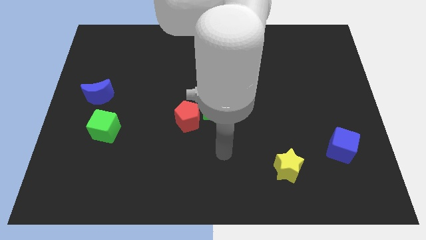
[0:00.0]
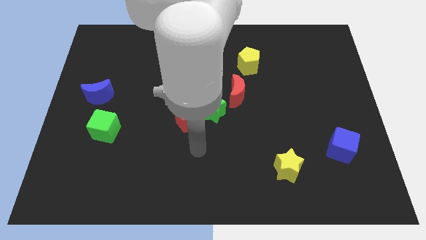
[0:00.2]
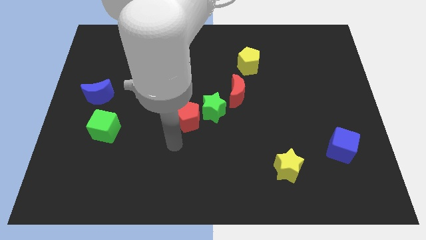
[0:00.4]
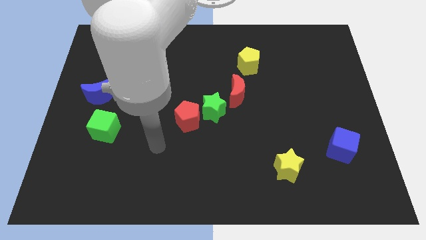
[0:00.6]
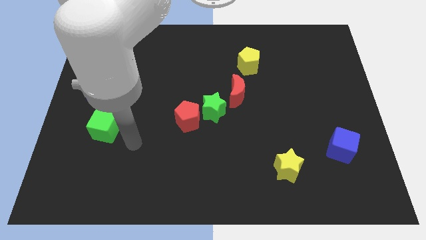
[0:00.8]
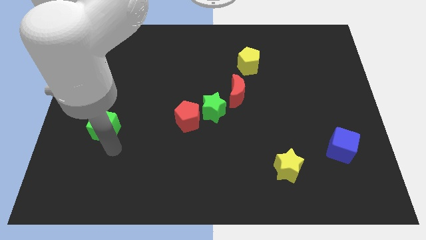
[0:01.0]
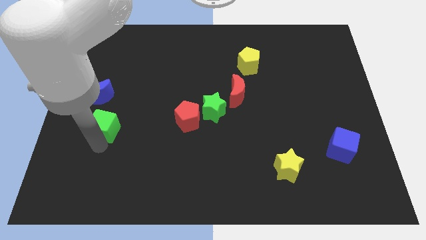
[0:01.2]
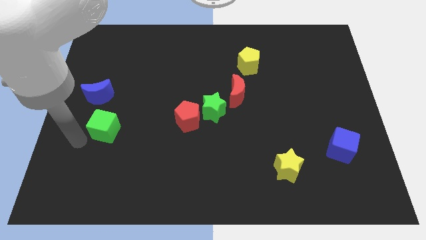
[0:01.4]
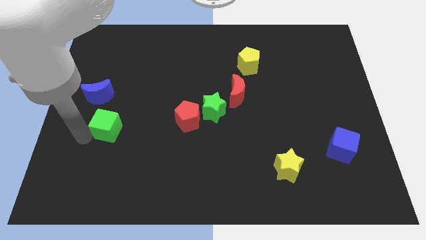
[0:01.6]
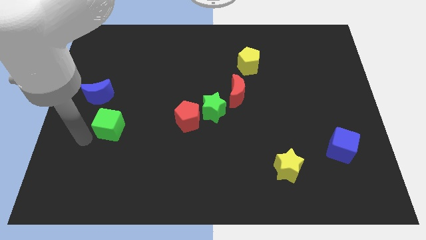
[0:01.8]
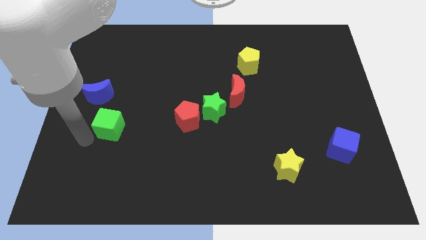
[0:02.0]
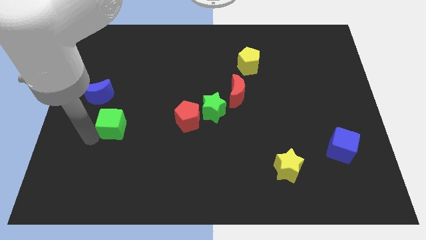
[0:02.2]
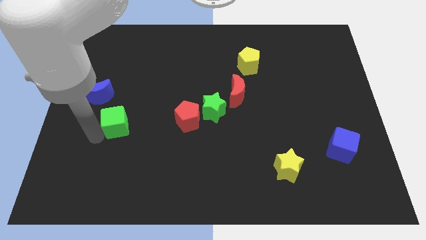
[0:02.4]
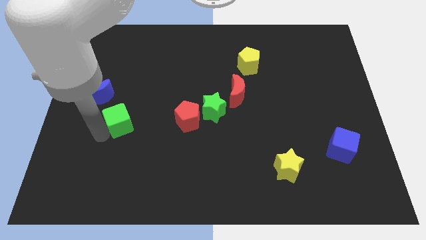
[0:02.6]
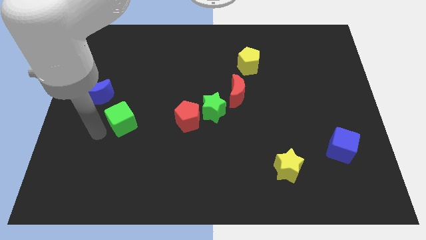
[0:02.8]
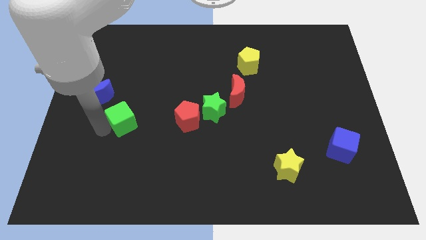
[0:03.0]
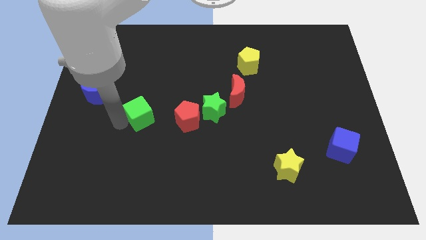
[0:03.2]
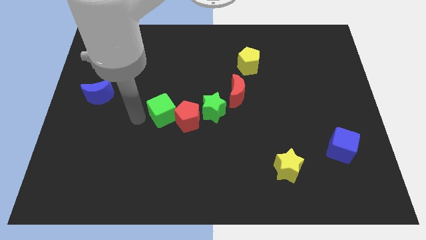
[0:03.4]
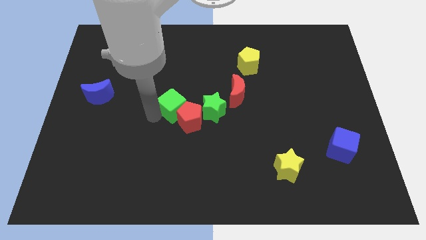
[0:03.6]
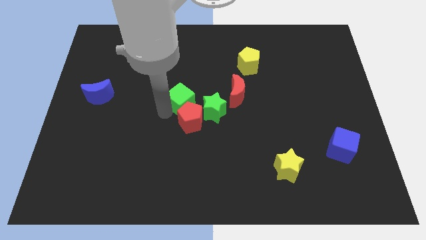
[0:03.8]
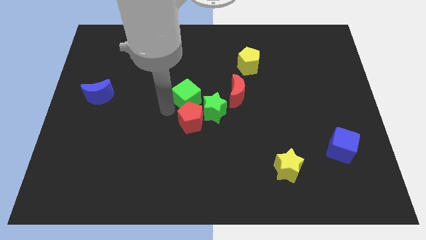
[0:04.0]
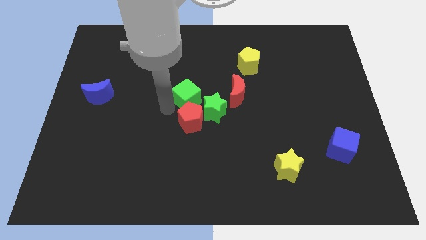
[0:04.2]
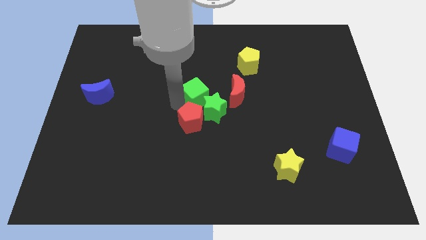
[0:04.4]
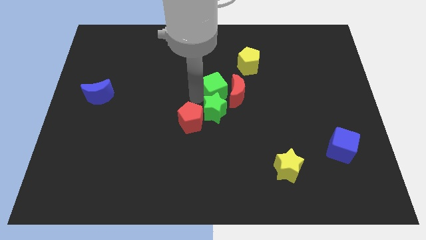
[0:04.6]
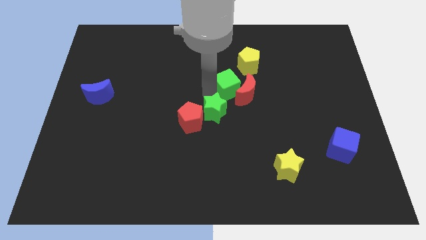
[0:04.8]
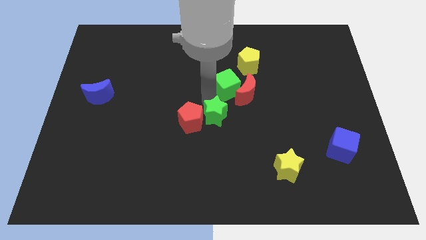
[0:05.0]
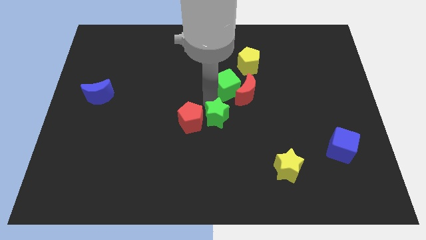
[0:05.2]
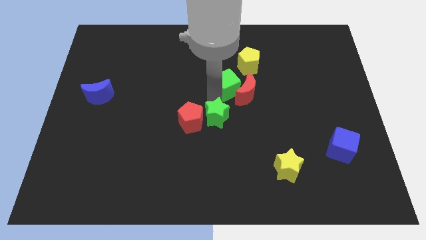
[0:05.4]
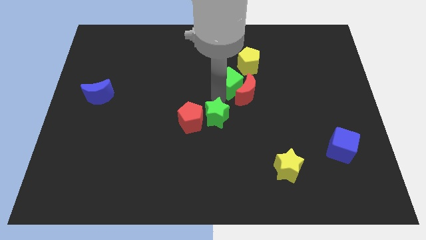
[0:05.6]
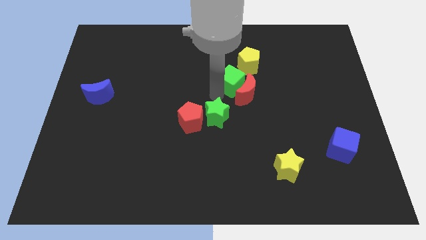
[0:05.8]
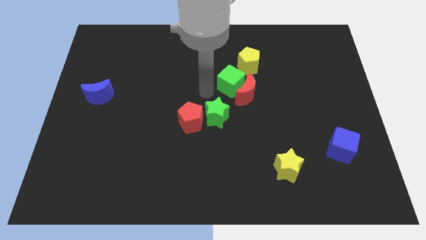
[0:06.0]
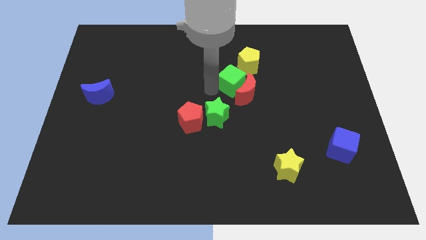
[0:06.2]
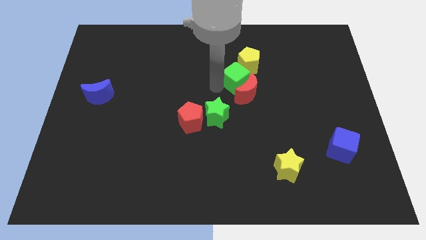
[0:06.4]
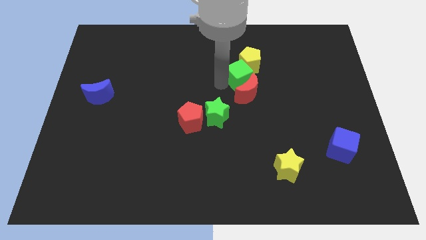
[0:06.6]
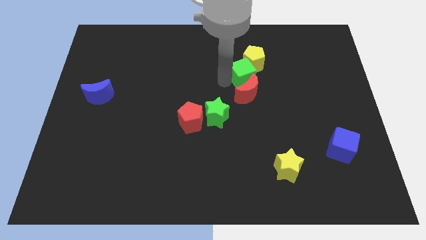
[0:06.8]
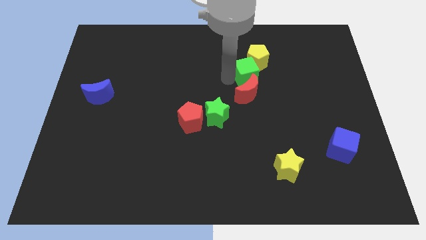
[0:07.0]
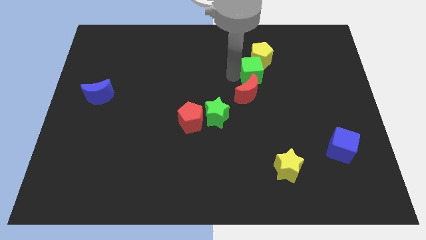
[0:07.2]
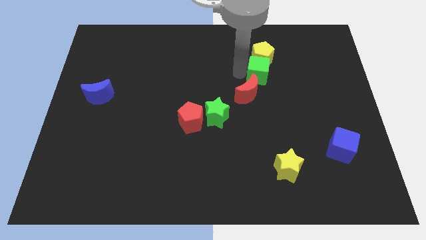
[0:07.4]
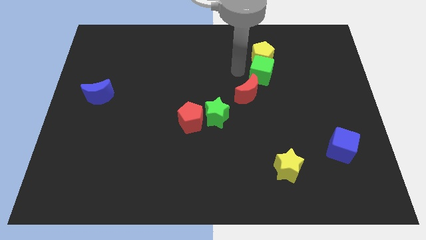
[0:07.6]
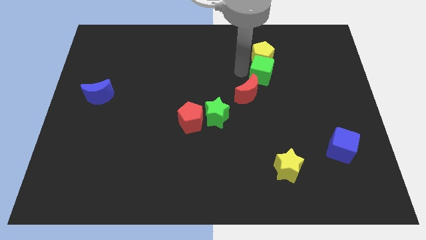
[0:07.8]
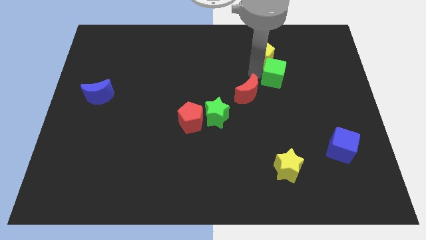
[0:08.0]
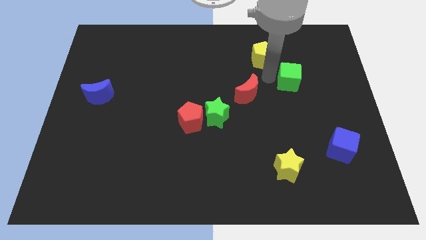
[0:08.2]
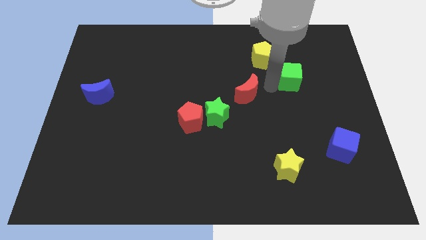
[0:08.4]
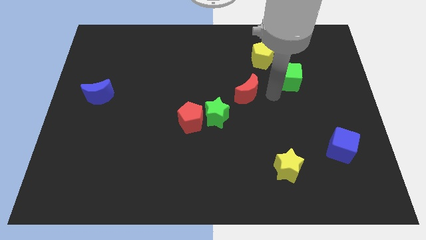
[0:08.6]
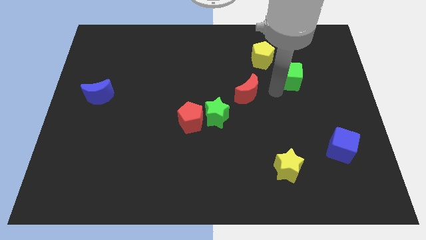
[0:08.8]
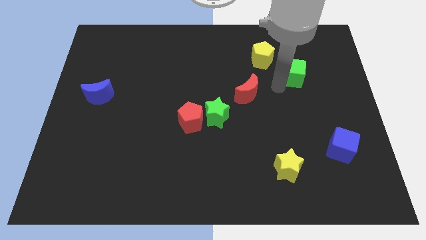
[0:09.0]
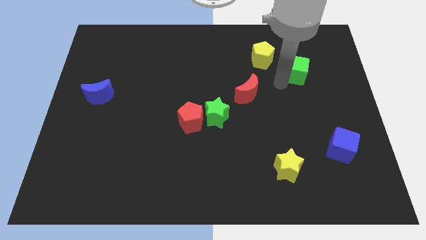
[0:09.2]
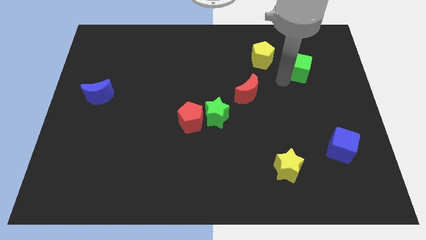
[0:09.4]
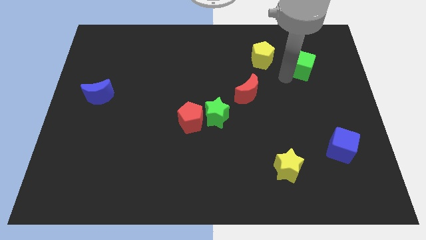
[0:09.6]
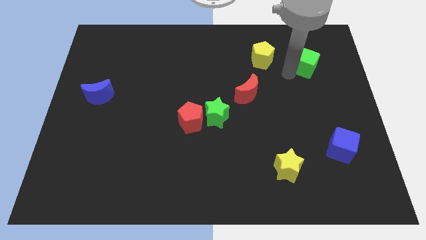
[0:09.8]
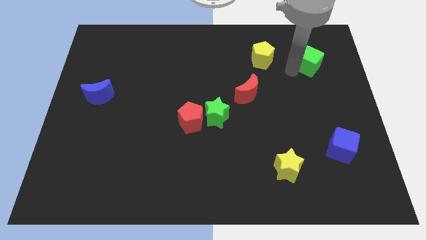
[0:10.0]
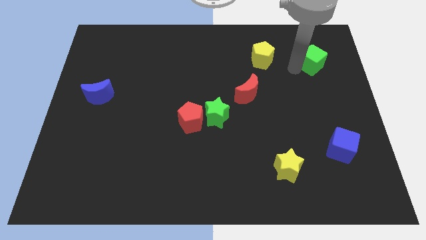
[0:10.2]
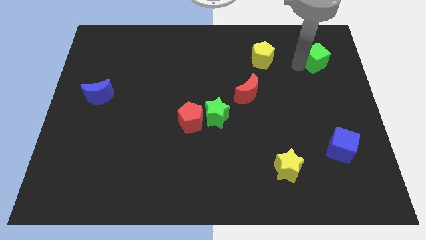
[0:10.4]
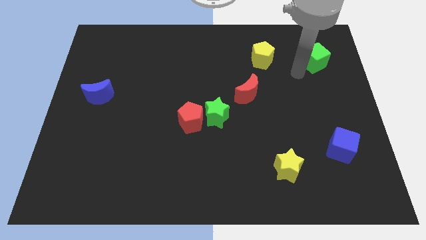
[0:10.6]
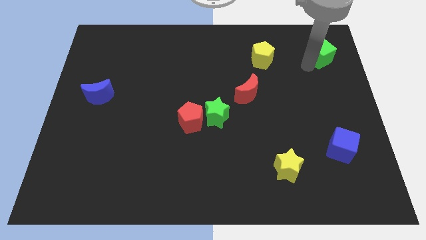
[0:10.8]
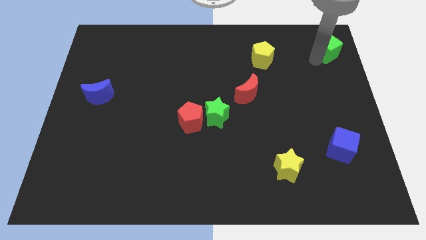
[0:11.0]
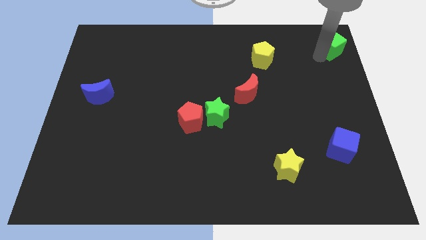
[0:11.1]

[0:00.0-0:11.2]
push the green cube to the top right
